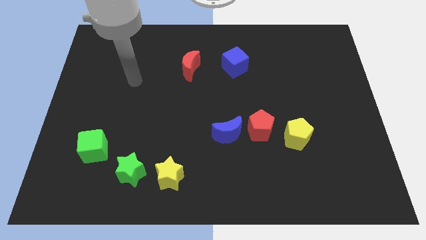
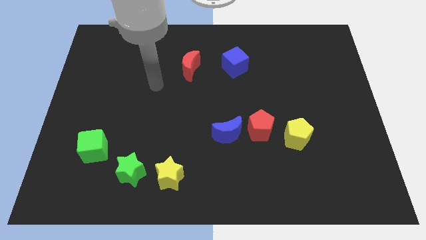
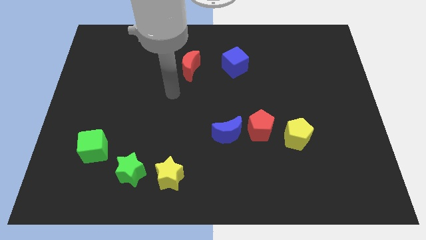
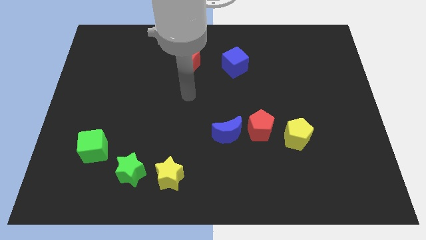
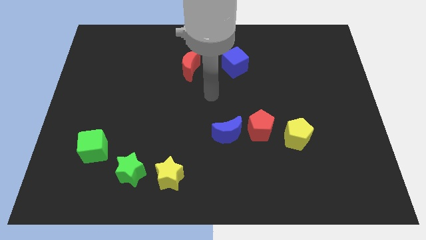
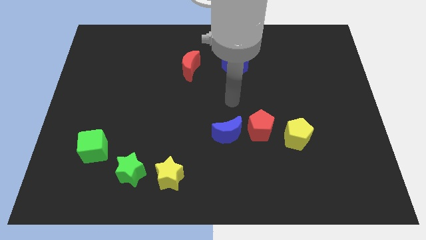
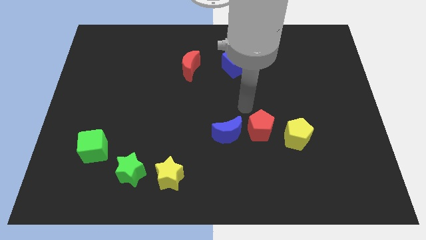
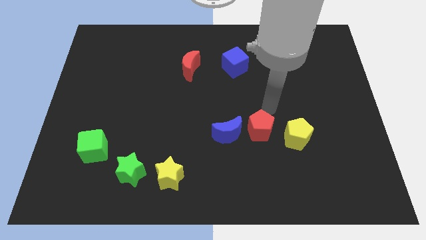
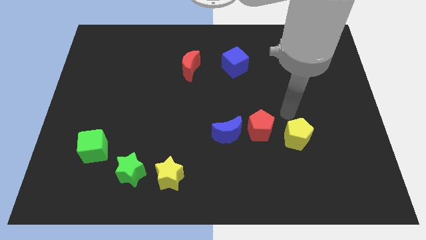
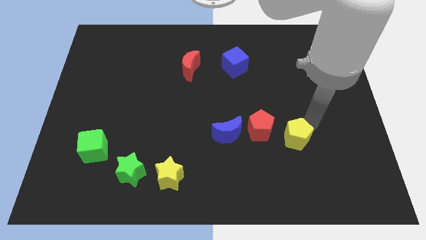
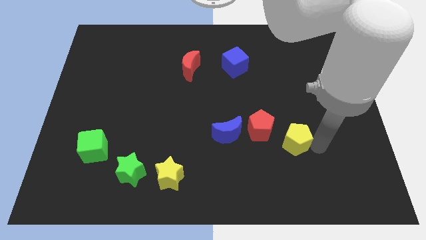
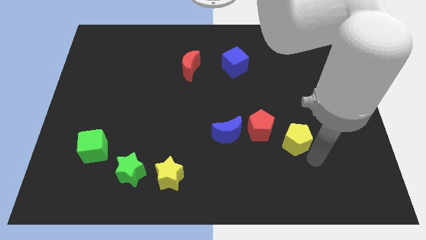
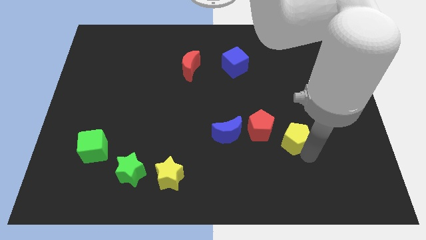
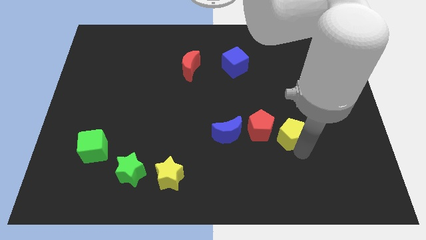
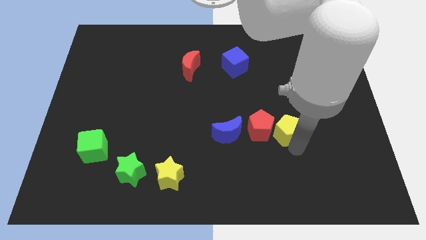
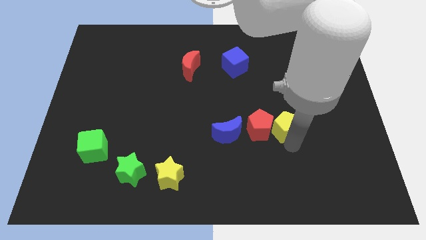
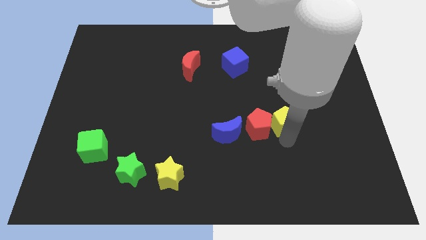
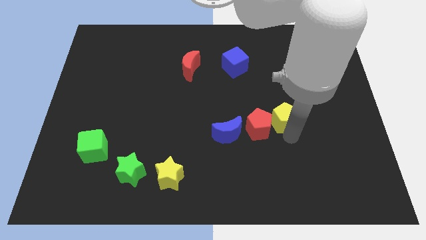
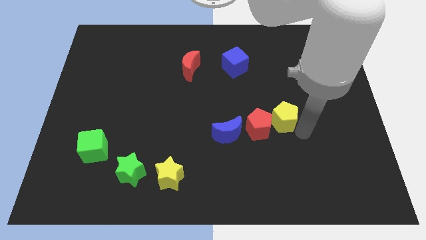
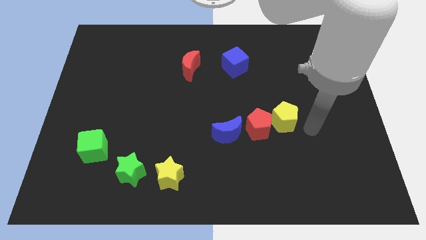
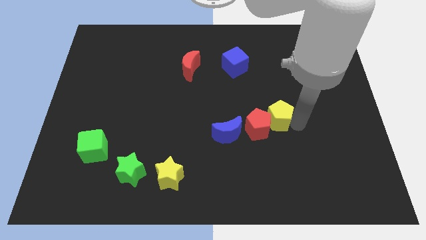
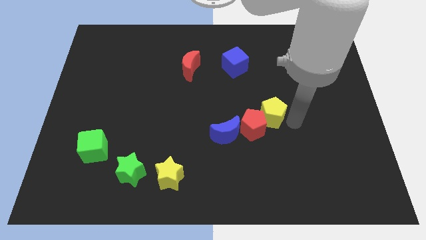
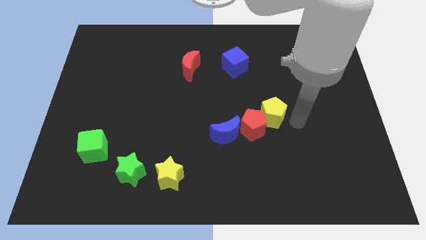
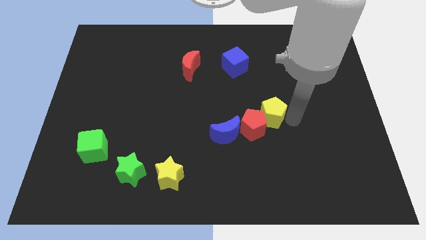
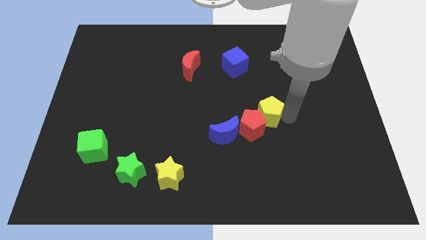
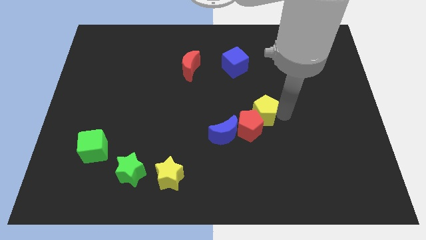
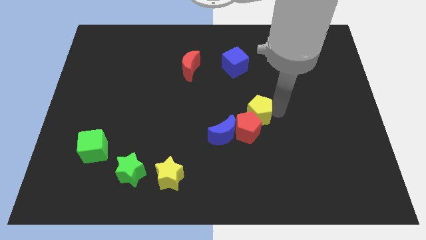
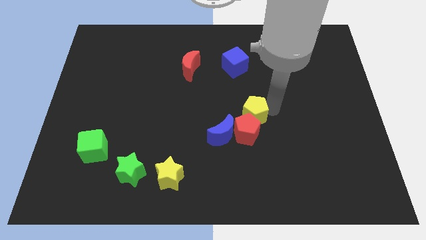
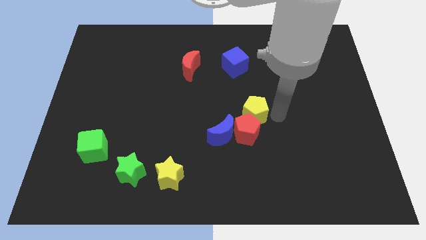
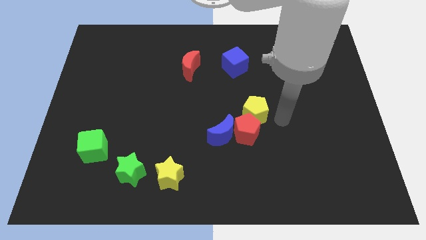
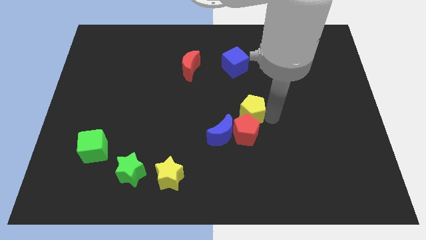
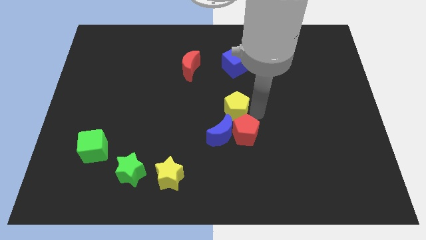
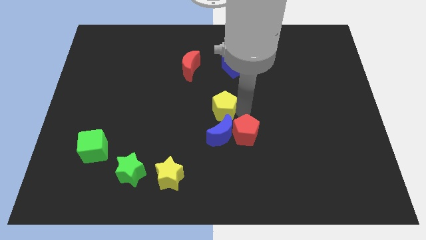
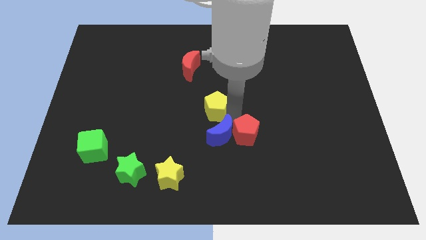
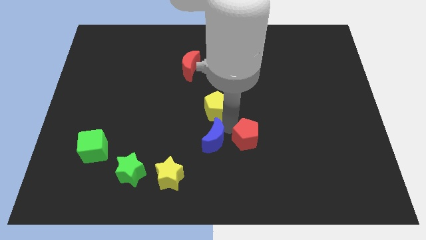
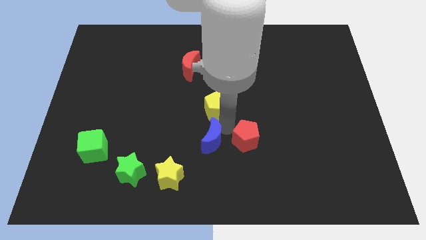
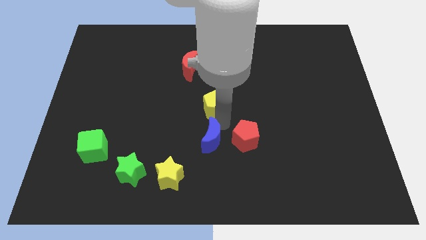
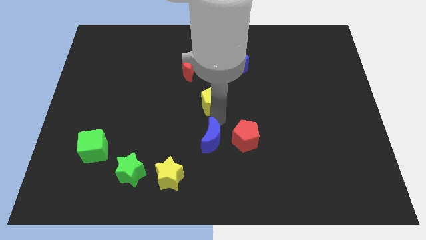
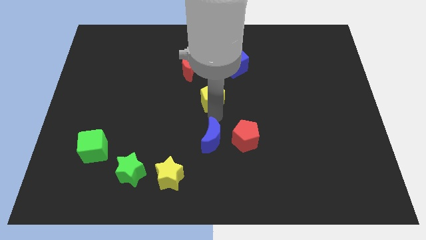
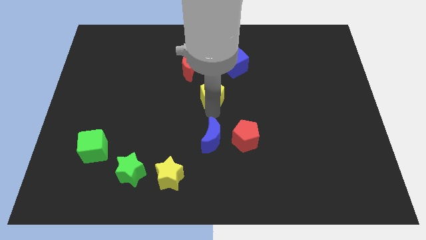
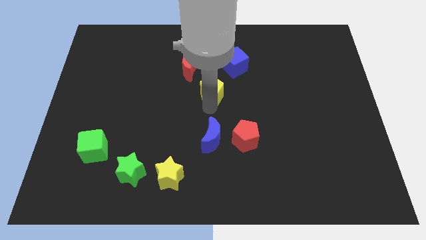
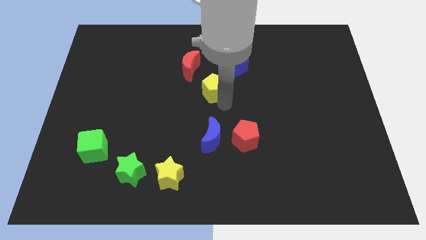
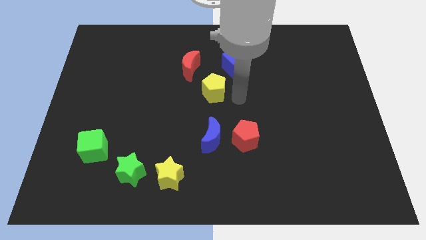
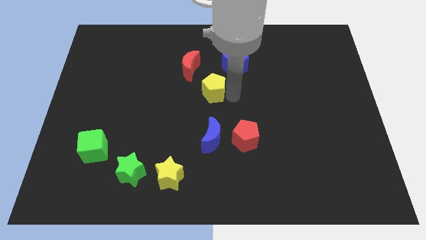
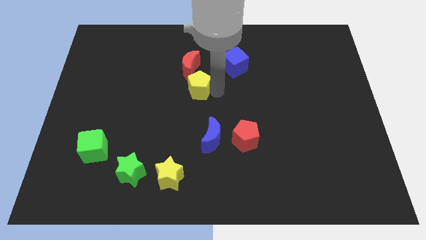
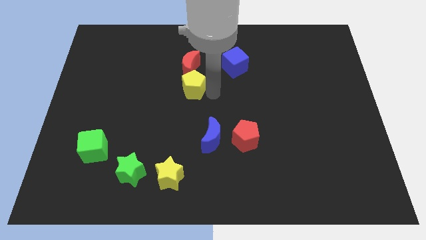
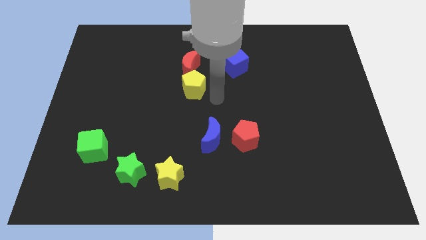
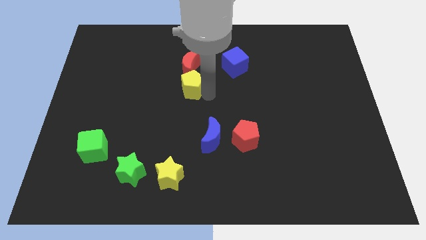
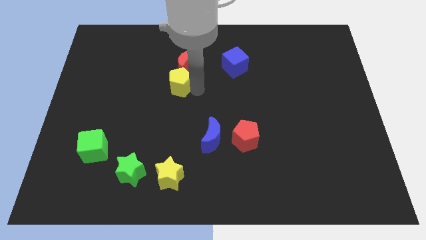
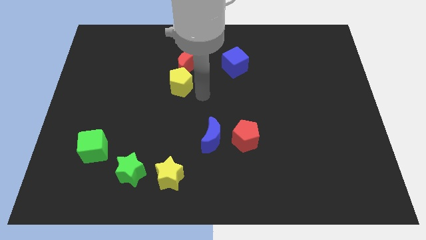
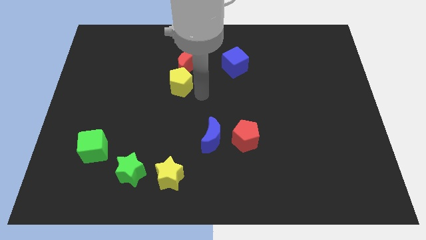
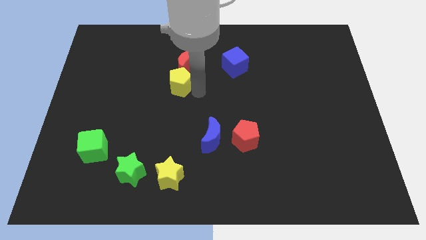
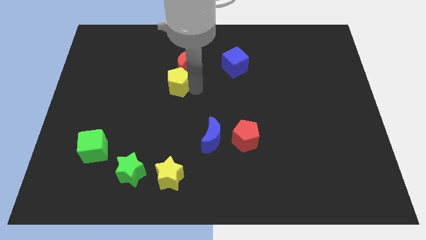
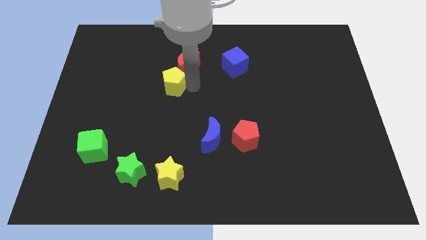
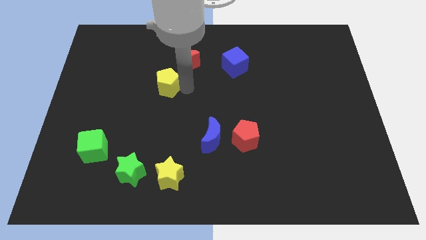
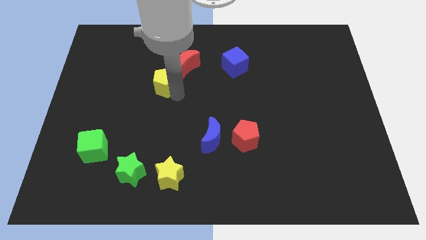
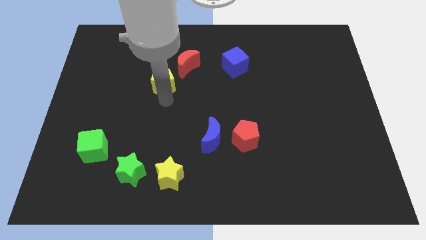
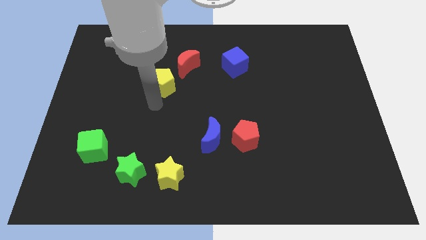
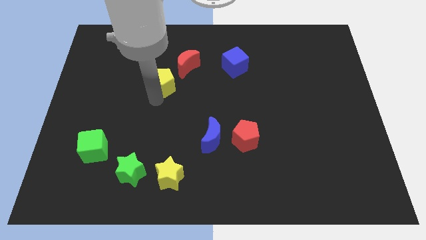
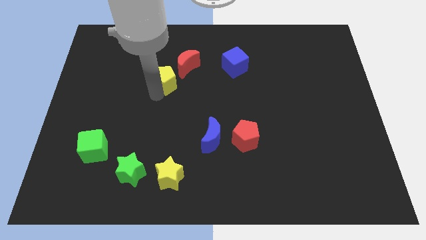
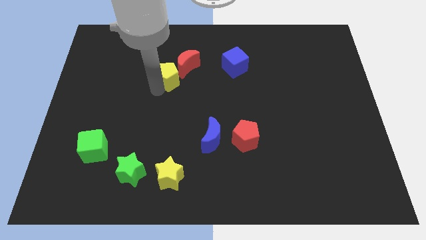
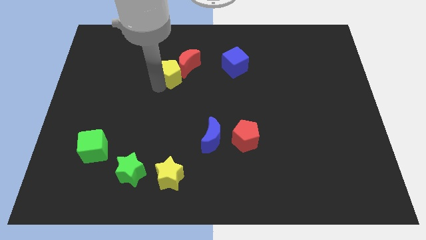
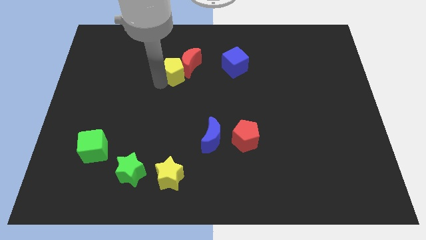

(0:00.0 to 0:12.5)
slide the yellow pentagon left of the blue cube
